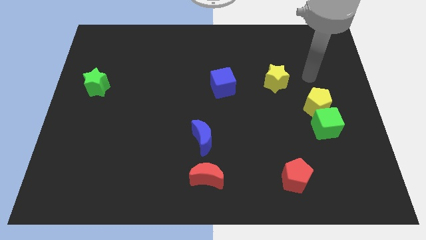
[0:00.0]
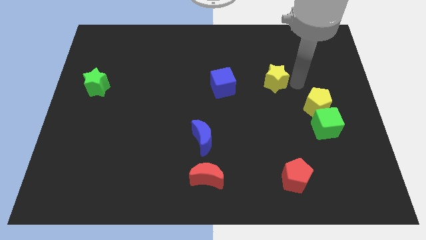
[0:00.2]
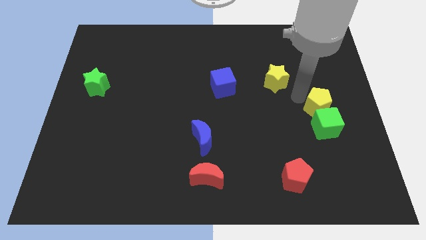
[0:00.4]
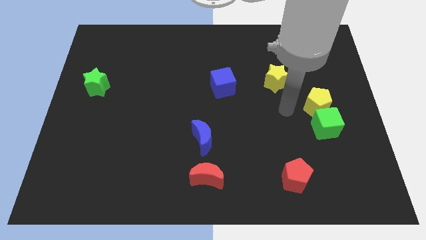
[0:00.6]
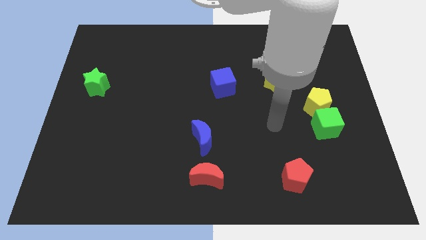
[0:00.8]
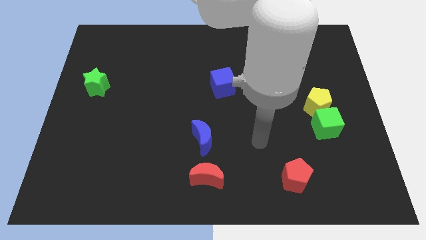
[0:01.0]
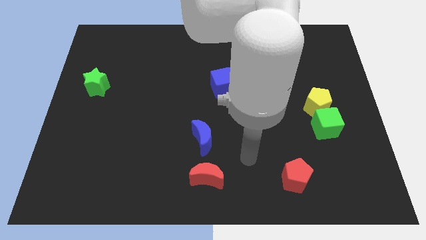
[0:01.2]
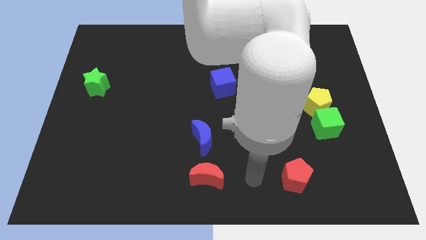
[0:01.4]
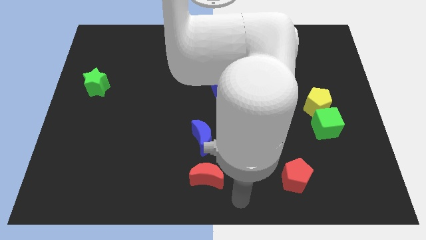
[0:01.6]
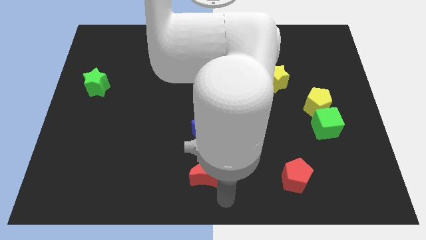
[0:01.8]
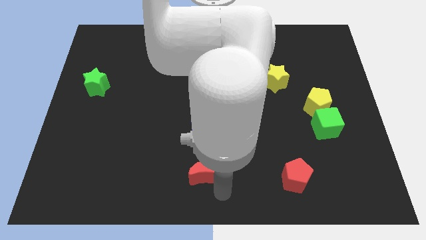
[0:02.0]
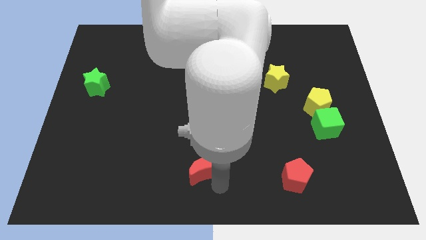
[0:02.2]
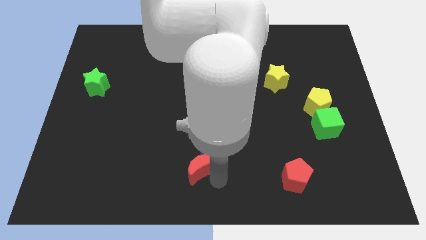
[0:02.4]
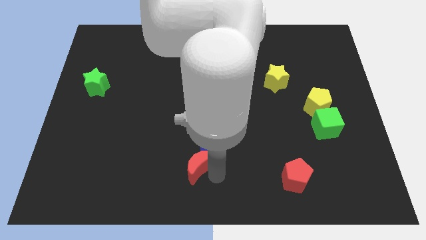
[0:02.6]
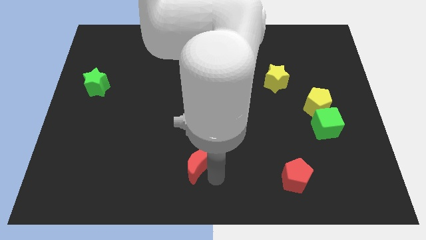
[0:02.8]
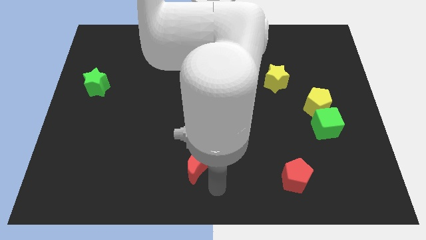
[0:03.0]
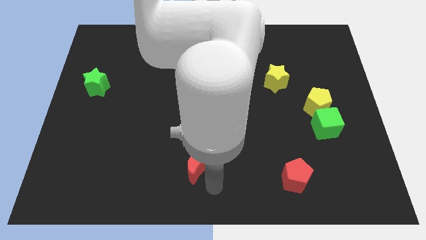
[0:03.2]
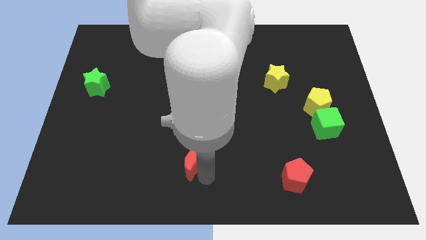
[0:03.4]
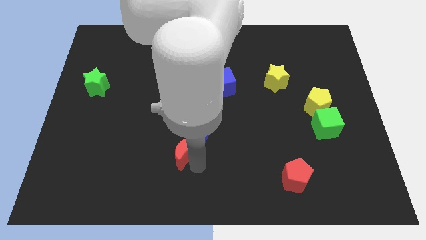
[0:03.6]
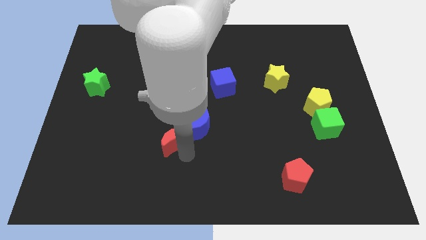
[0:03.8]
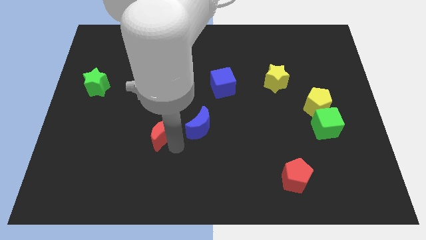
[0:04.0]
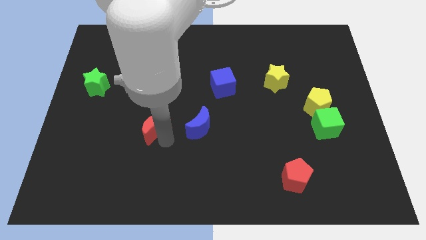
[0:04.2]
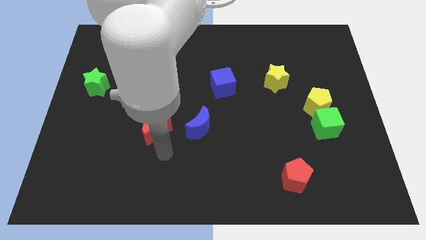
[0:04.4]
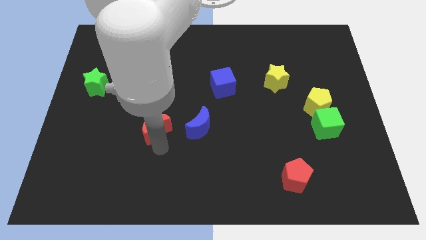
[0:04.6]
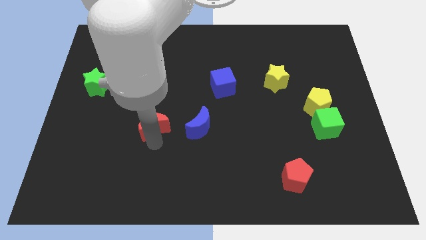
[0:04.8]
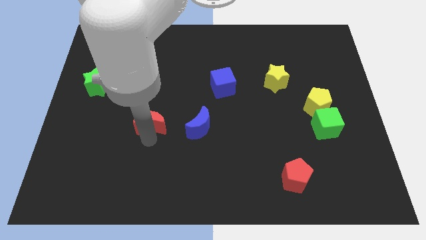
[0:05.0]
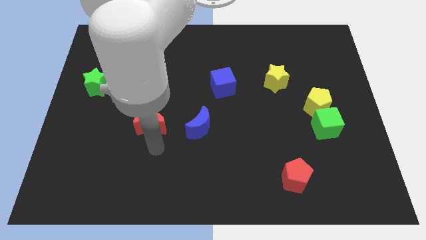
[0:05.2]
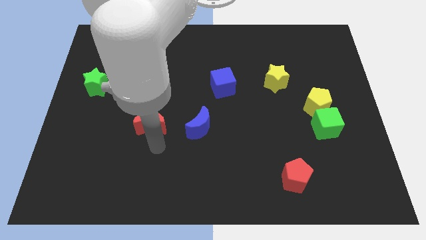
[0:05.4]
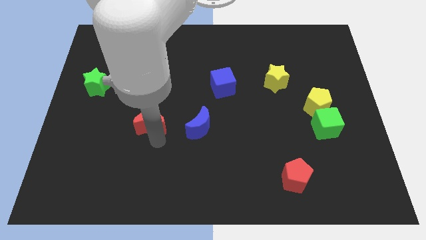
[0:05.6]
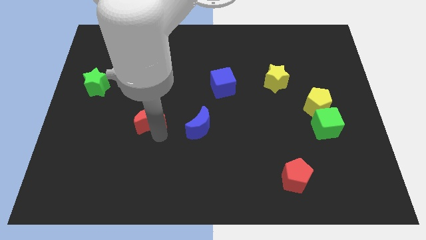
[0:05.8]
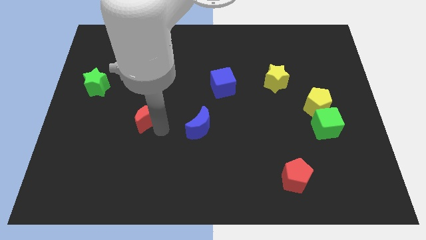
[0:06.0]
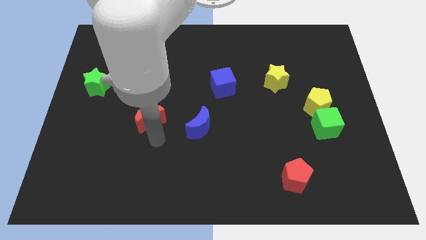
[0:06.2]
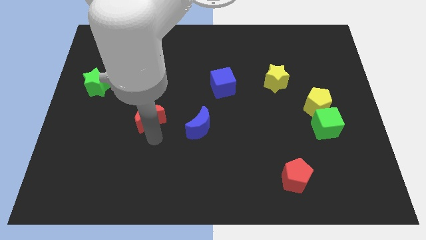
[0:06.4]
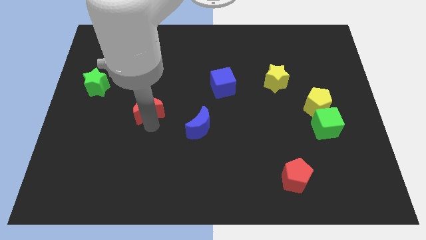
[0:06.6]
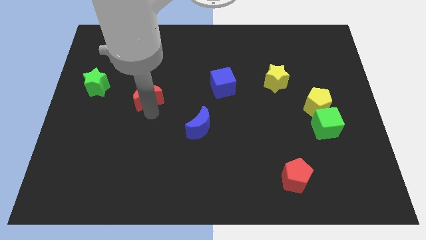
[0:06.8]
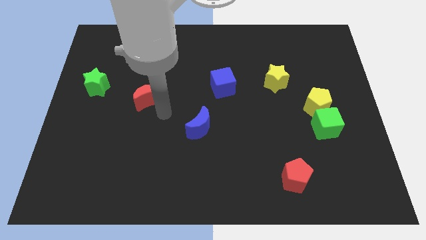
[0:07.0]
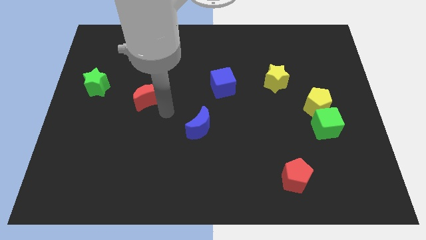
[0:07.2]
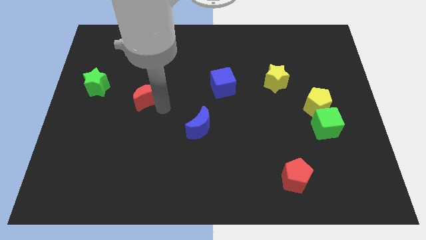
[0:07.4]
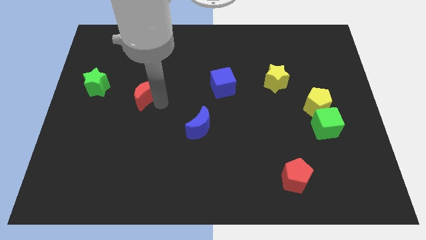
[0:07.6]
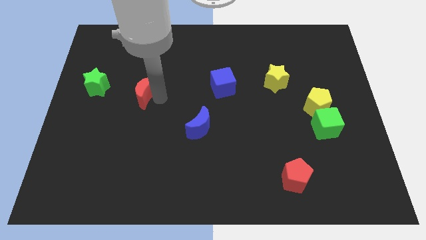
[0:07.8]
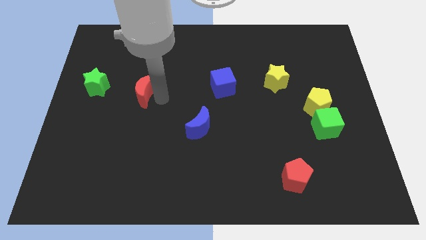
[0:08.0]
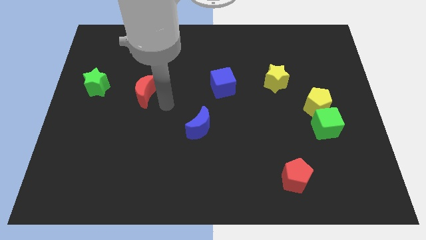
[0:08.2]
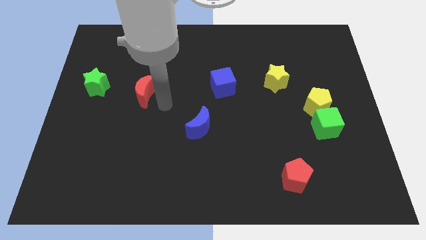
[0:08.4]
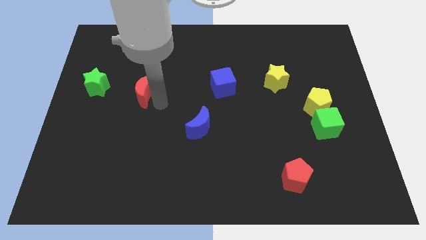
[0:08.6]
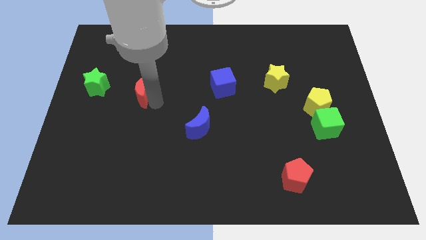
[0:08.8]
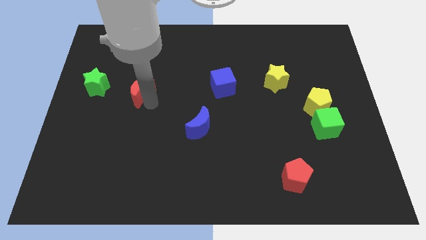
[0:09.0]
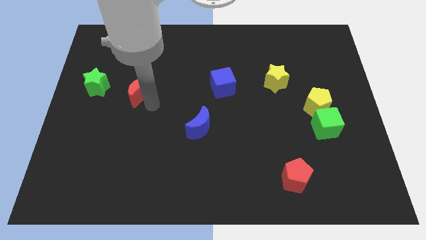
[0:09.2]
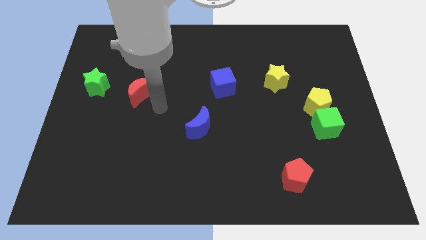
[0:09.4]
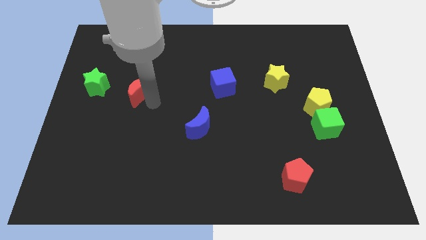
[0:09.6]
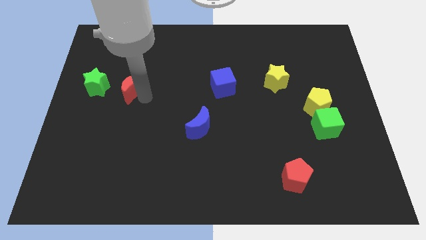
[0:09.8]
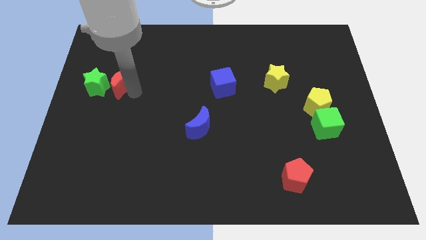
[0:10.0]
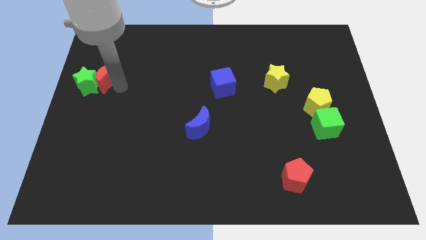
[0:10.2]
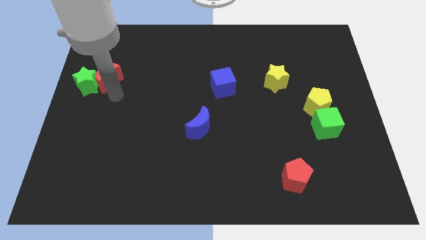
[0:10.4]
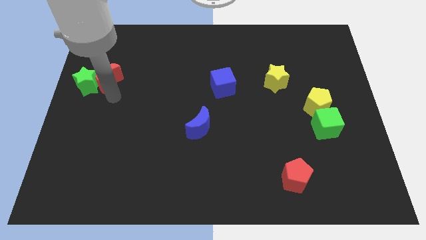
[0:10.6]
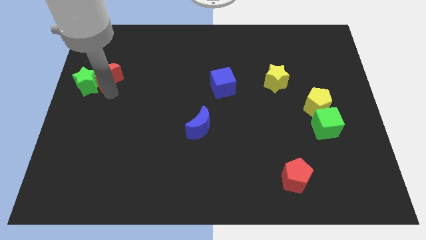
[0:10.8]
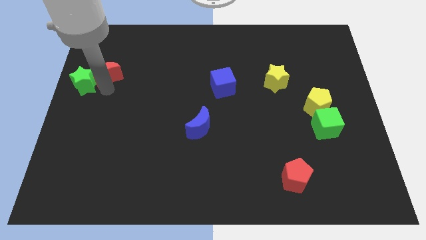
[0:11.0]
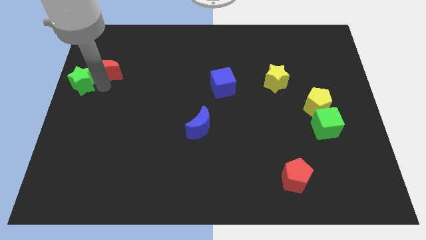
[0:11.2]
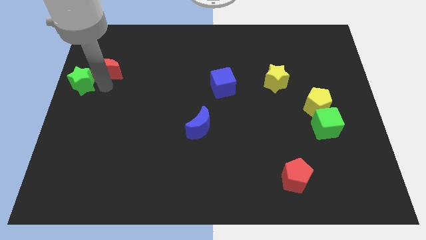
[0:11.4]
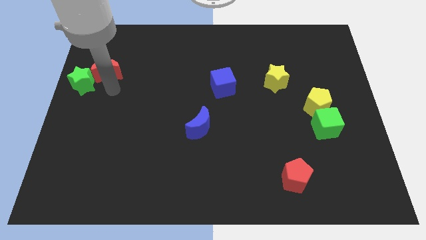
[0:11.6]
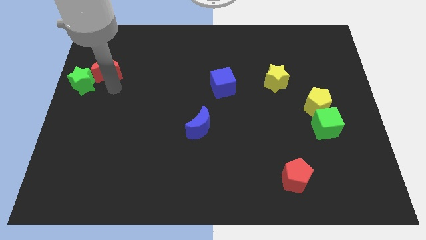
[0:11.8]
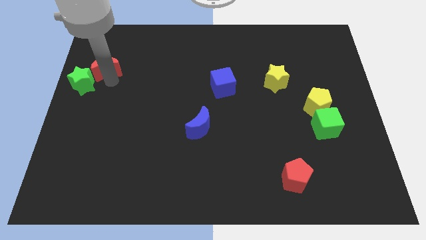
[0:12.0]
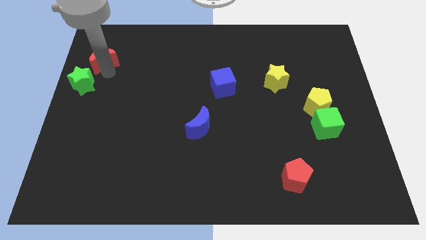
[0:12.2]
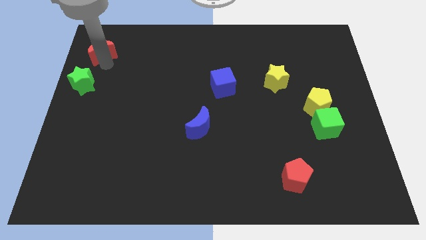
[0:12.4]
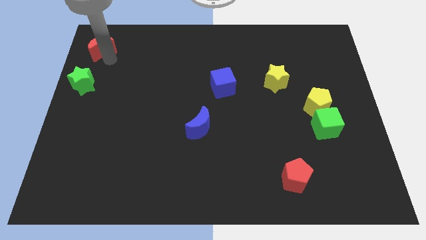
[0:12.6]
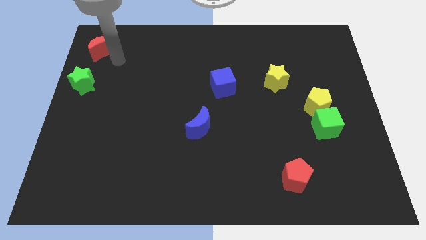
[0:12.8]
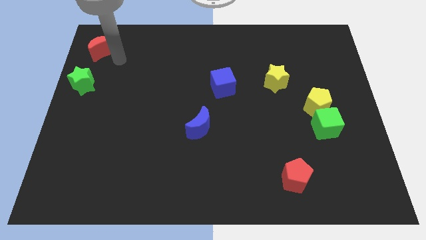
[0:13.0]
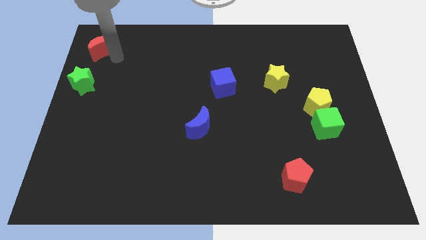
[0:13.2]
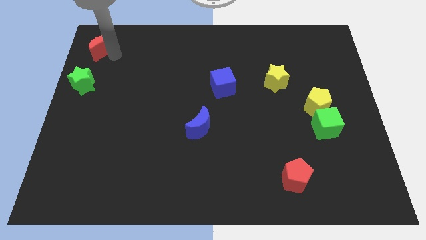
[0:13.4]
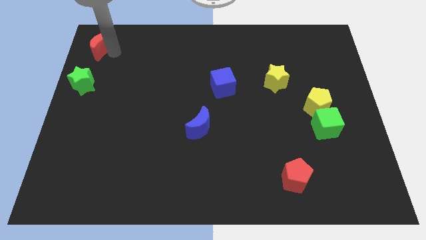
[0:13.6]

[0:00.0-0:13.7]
slide the red moon to the upper left corner
